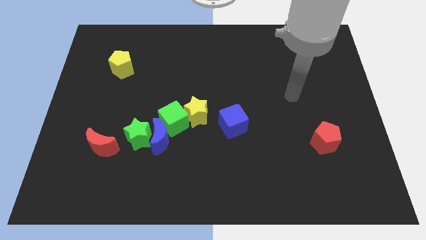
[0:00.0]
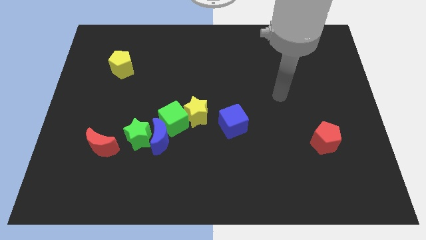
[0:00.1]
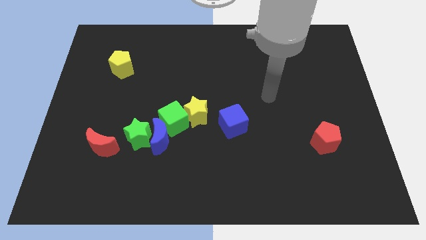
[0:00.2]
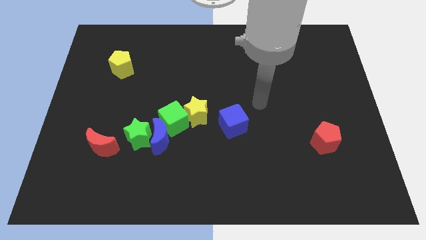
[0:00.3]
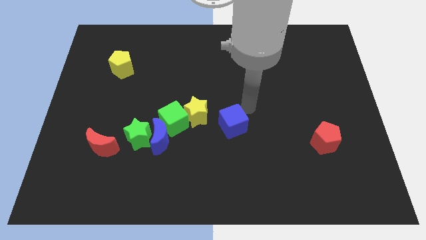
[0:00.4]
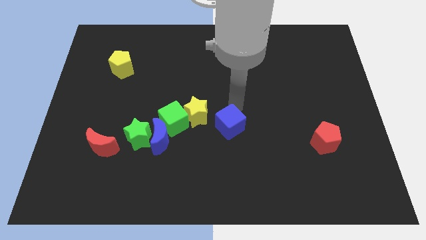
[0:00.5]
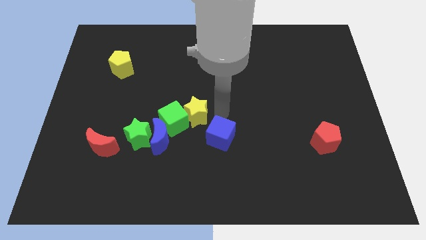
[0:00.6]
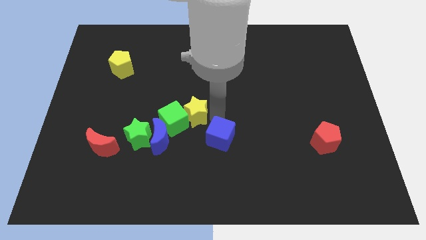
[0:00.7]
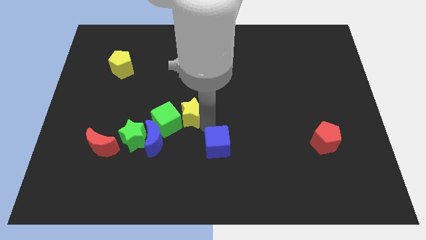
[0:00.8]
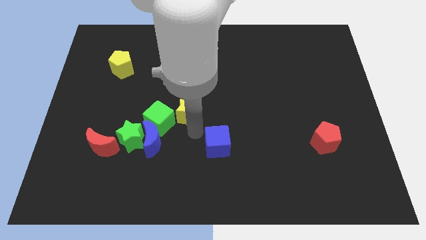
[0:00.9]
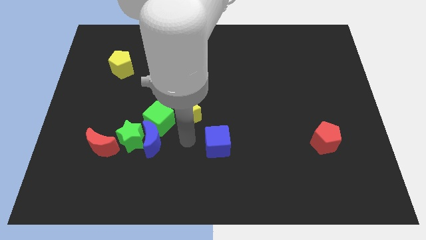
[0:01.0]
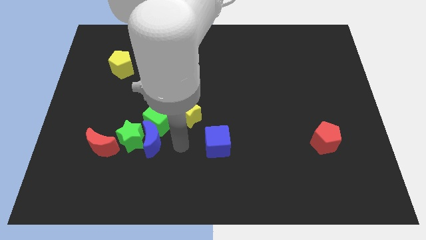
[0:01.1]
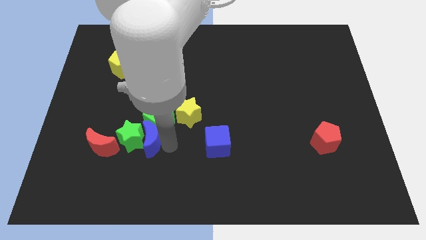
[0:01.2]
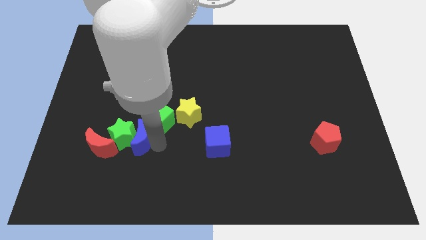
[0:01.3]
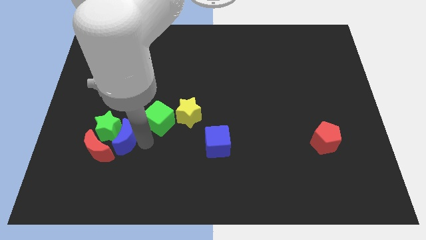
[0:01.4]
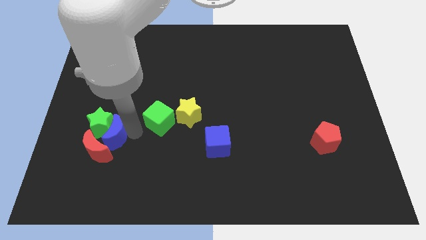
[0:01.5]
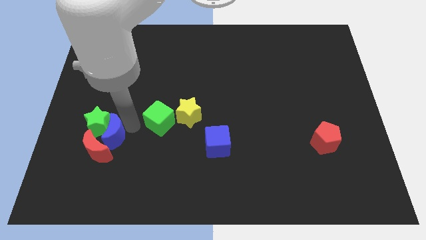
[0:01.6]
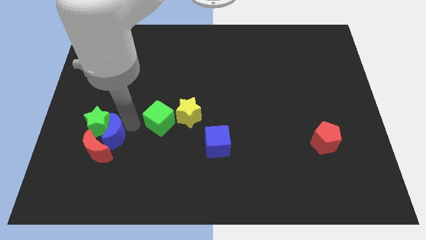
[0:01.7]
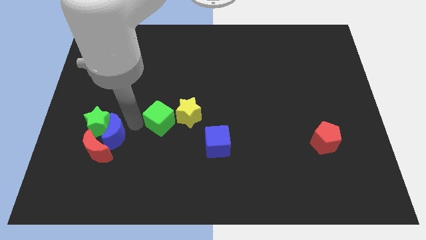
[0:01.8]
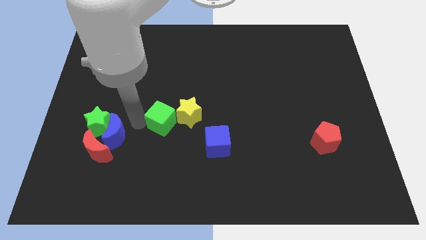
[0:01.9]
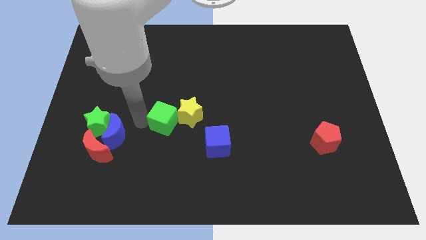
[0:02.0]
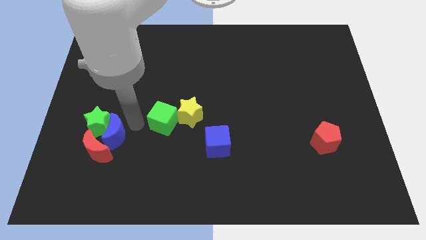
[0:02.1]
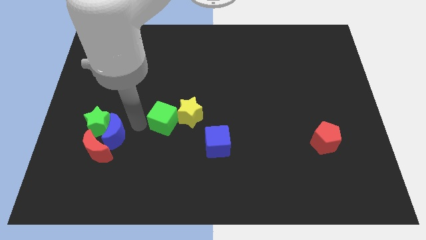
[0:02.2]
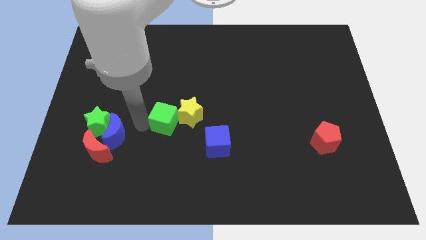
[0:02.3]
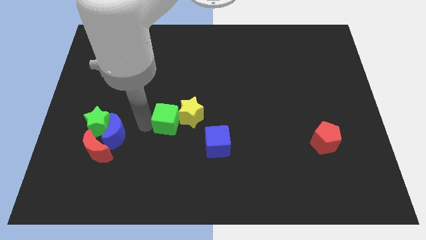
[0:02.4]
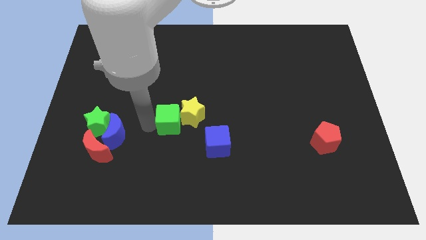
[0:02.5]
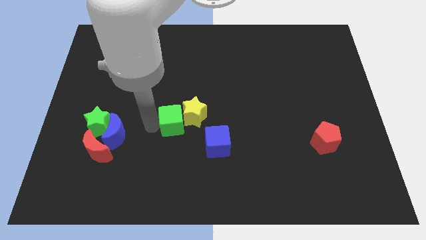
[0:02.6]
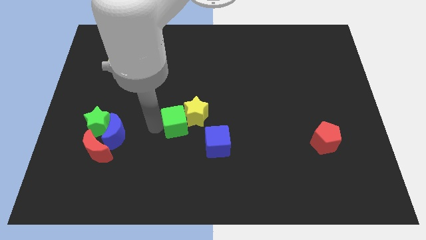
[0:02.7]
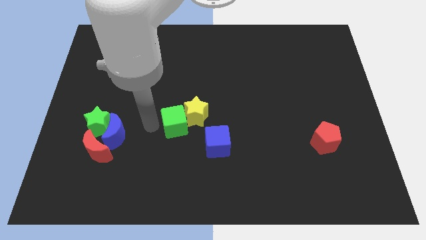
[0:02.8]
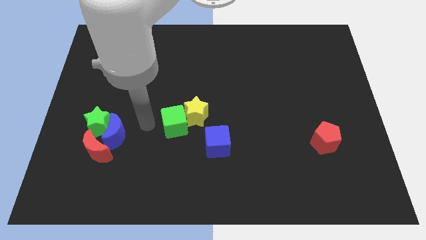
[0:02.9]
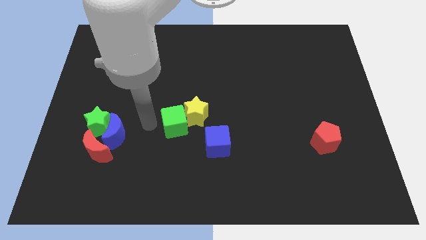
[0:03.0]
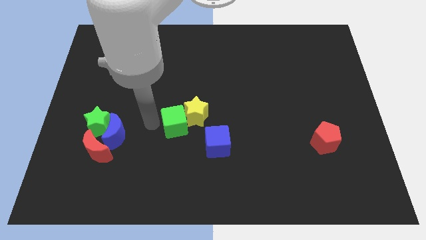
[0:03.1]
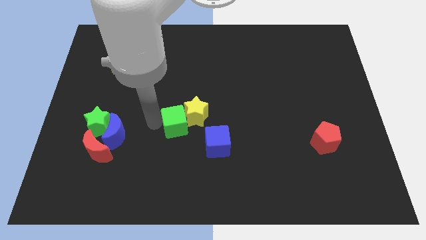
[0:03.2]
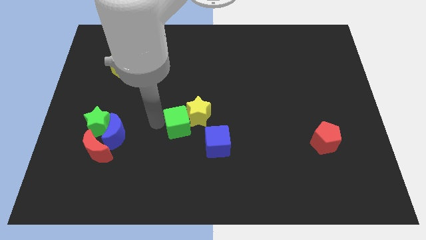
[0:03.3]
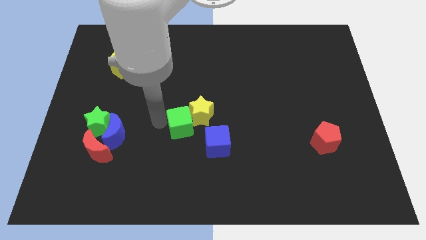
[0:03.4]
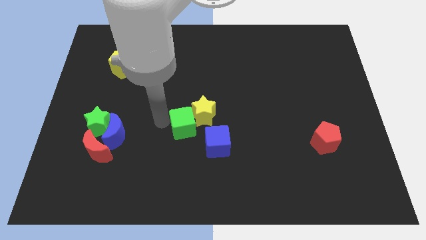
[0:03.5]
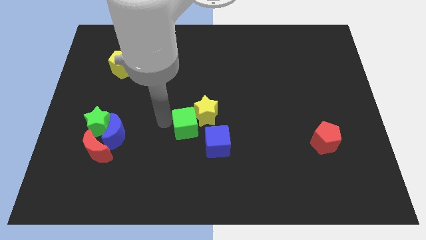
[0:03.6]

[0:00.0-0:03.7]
move the green cube away from the group of blocks

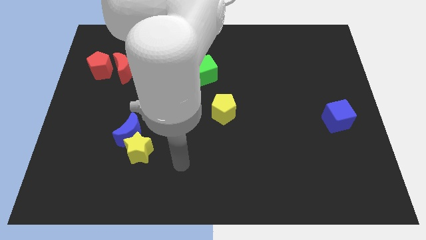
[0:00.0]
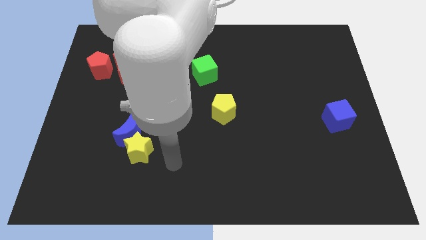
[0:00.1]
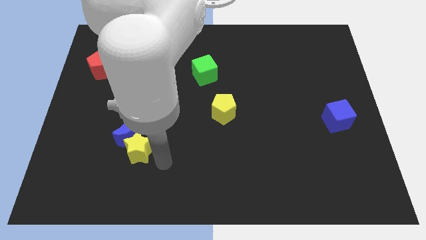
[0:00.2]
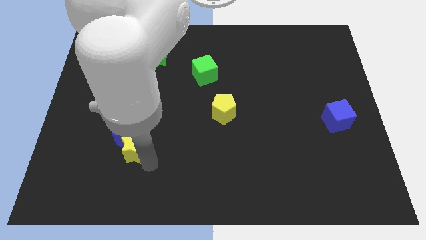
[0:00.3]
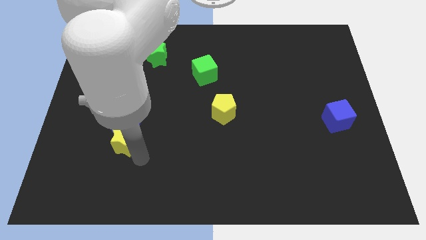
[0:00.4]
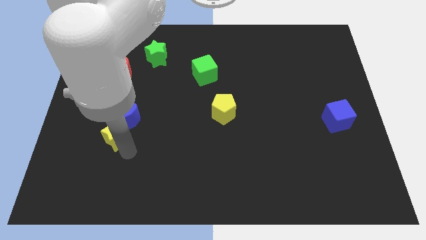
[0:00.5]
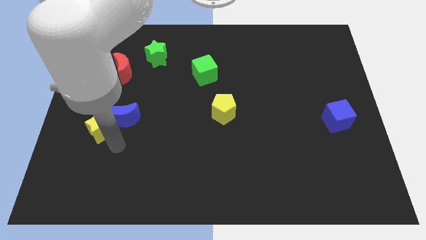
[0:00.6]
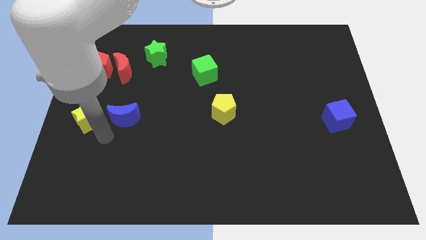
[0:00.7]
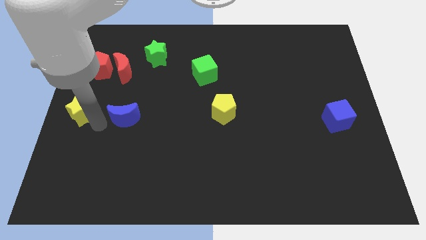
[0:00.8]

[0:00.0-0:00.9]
separate the blue moon from the yellow star

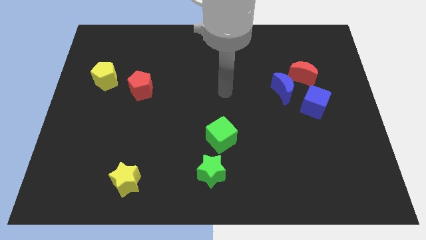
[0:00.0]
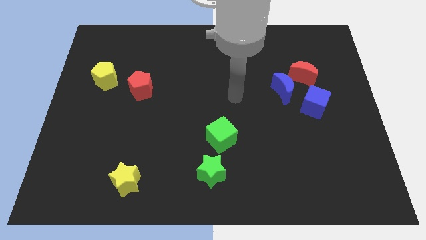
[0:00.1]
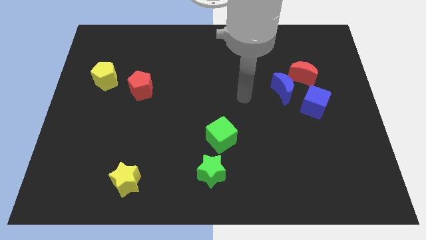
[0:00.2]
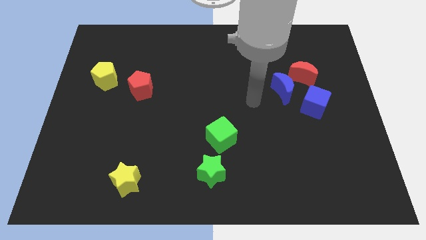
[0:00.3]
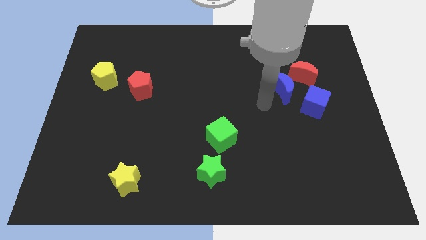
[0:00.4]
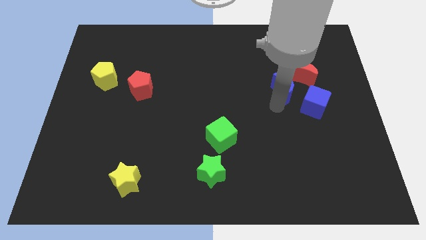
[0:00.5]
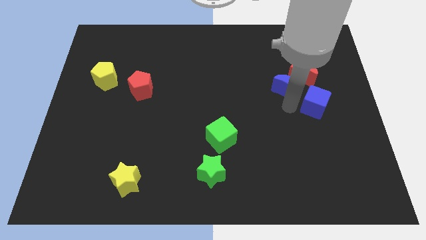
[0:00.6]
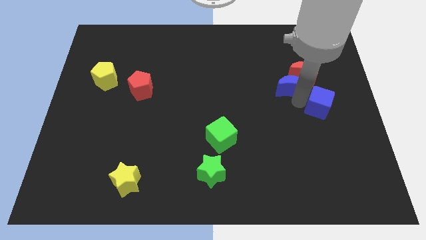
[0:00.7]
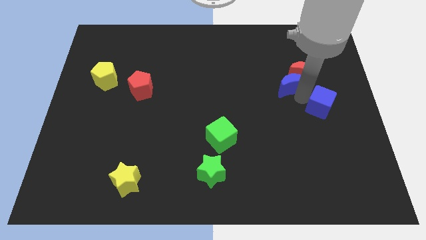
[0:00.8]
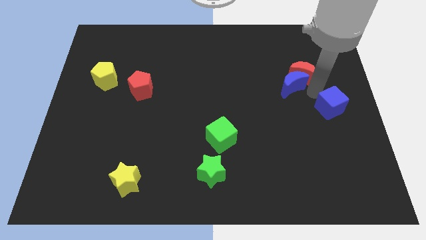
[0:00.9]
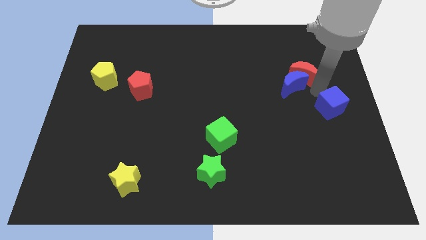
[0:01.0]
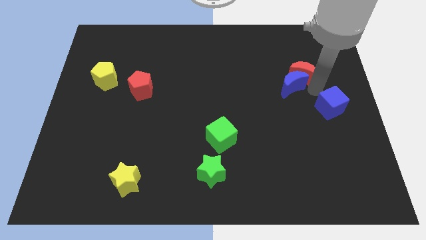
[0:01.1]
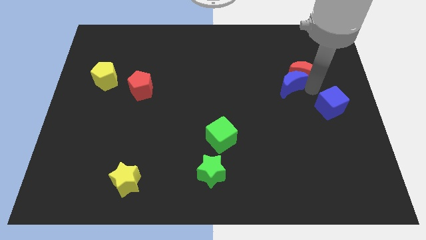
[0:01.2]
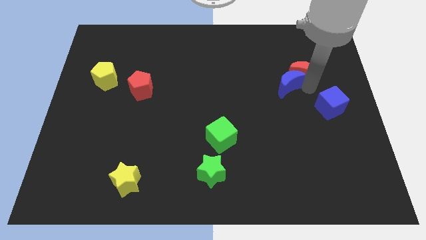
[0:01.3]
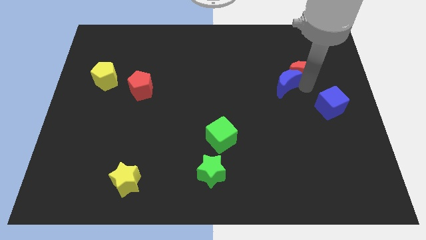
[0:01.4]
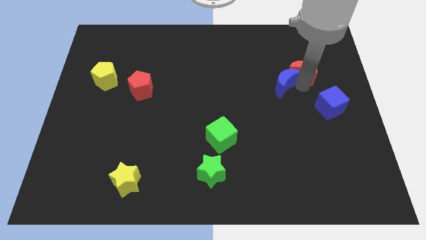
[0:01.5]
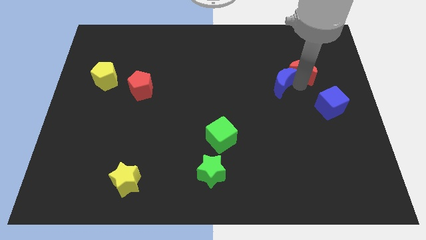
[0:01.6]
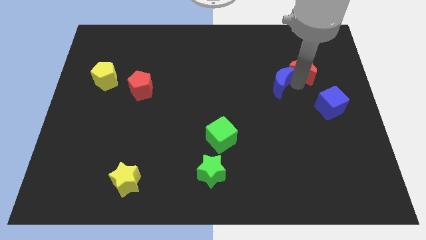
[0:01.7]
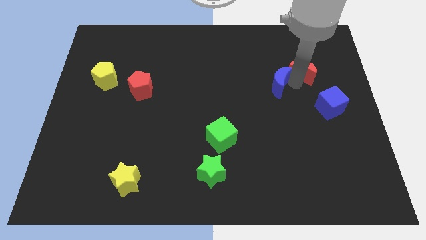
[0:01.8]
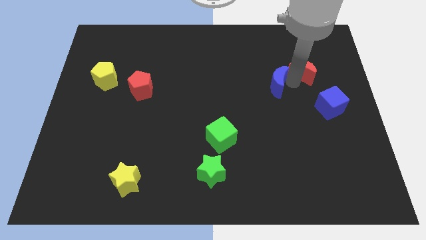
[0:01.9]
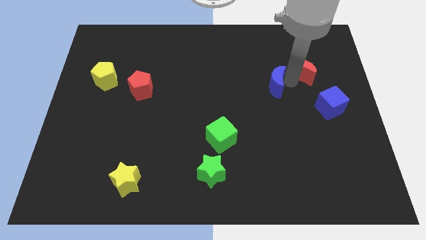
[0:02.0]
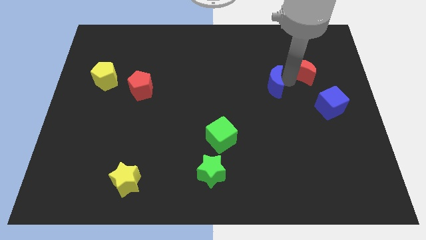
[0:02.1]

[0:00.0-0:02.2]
separate the blue moon from the red moon and blue cube

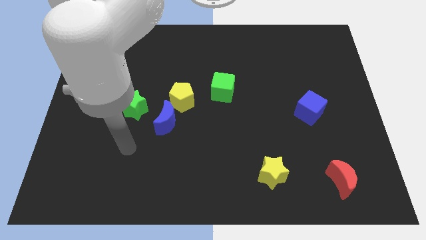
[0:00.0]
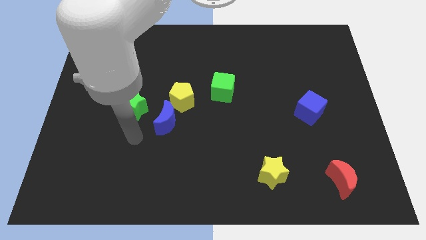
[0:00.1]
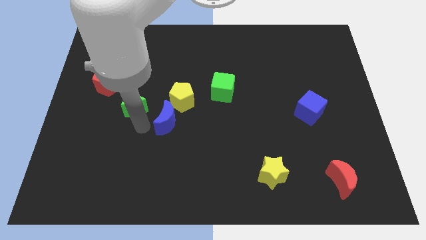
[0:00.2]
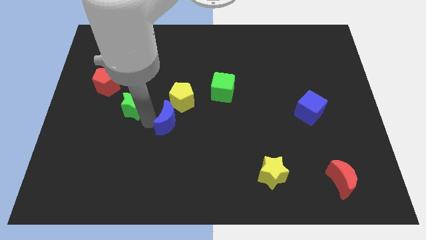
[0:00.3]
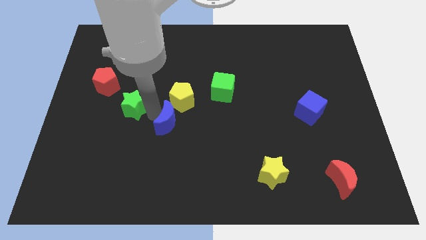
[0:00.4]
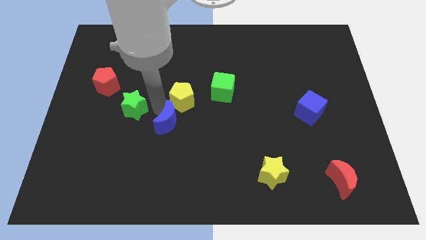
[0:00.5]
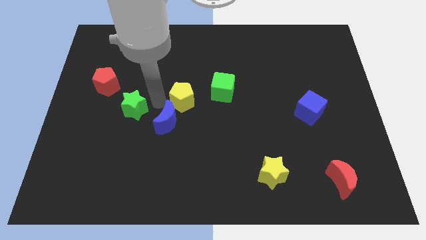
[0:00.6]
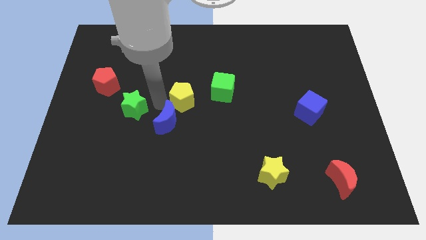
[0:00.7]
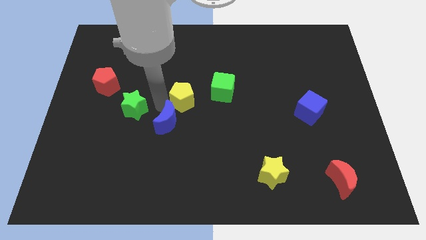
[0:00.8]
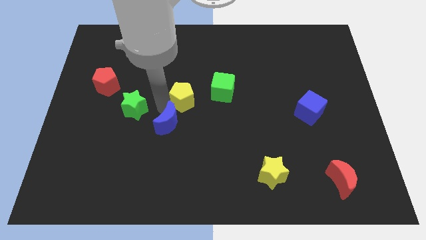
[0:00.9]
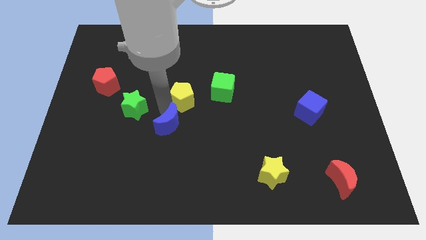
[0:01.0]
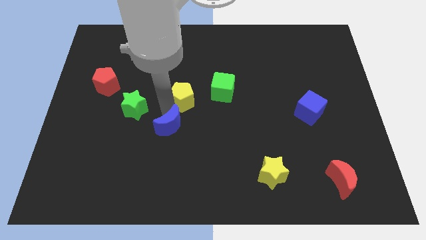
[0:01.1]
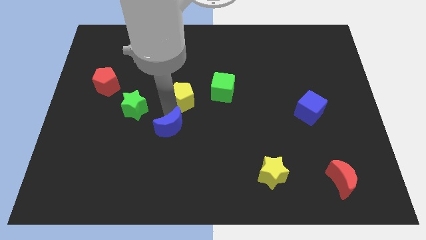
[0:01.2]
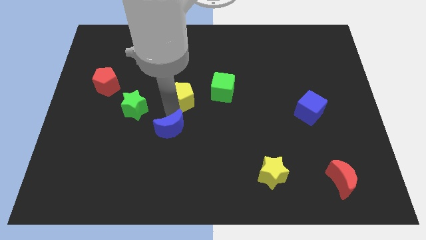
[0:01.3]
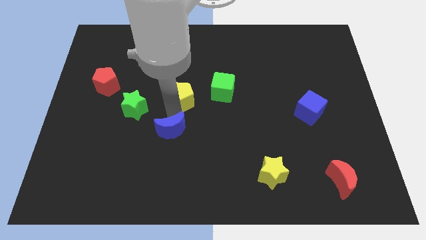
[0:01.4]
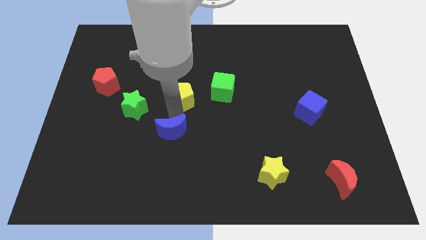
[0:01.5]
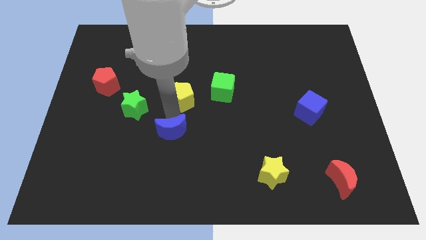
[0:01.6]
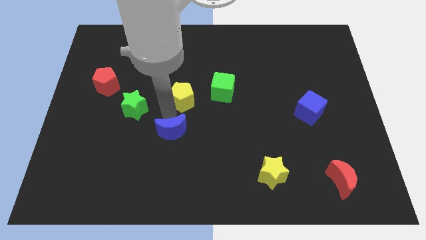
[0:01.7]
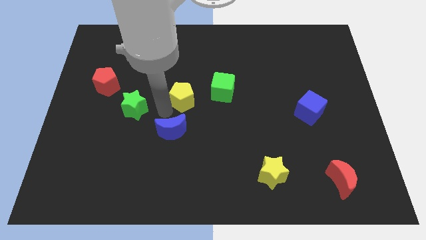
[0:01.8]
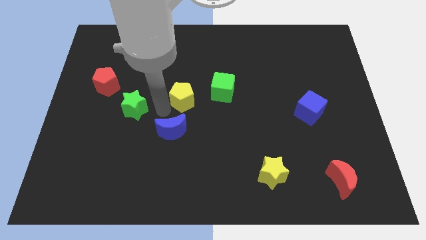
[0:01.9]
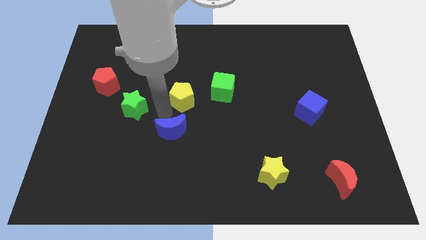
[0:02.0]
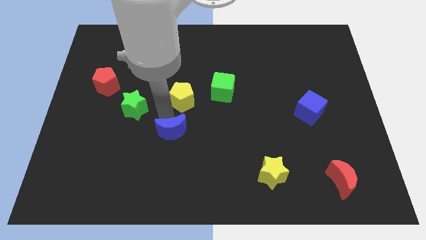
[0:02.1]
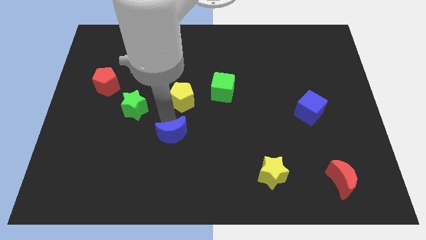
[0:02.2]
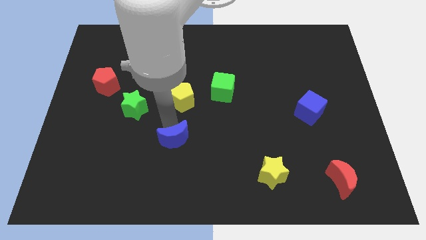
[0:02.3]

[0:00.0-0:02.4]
pull the blue moon apart from the yellow pentagon and green star

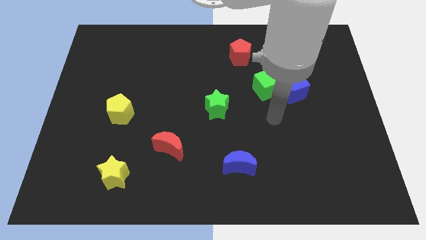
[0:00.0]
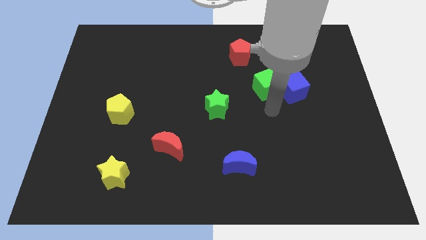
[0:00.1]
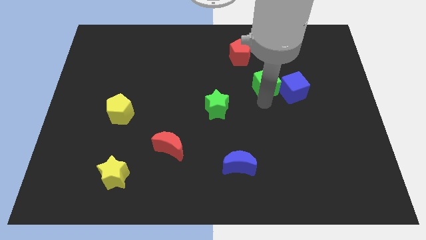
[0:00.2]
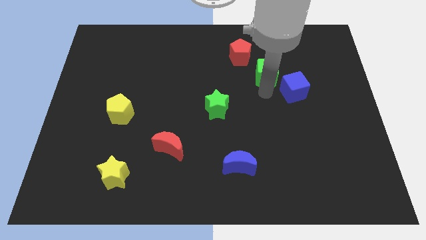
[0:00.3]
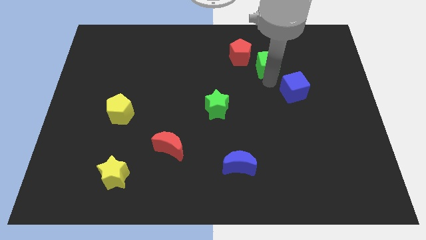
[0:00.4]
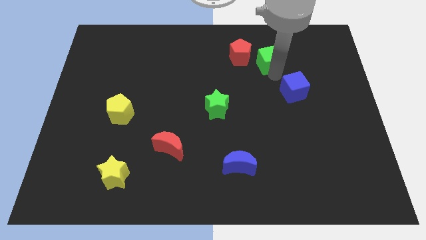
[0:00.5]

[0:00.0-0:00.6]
move the blue cube away from the green cube
